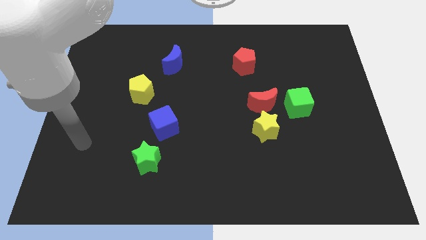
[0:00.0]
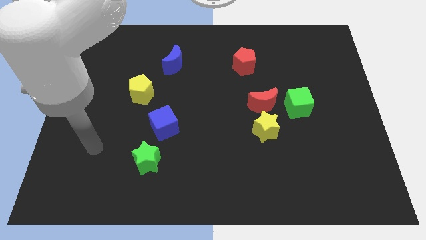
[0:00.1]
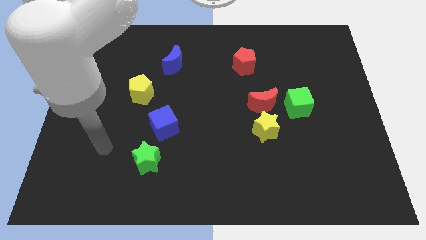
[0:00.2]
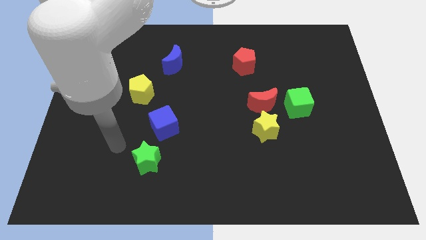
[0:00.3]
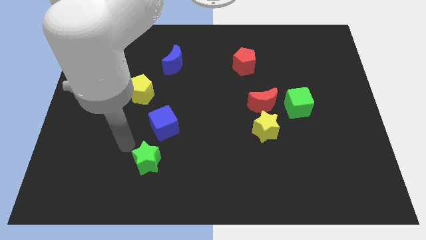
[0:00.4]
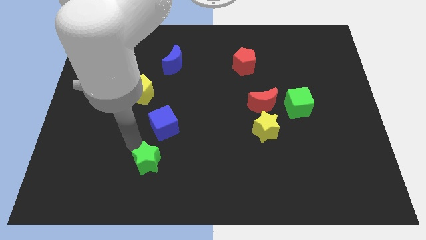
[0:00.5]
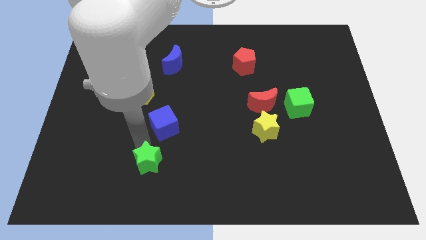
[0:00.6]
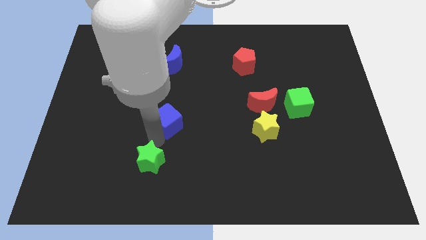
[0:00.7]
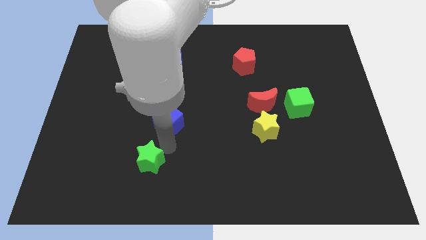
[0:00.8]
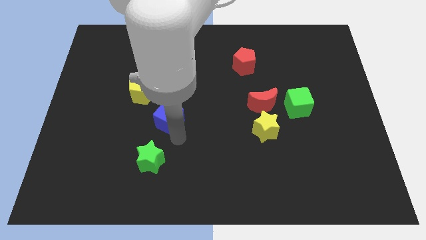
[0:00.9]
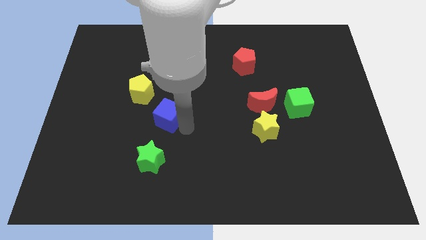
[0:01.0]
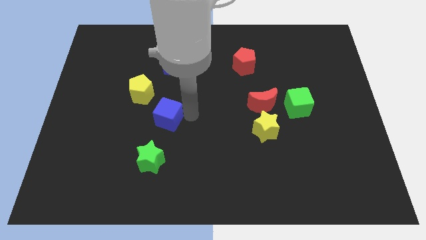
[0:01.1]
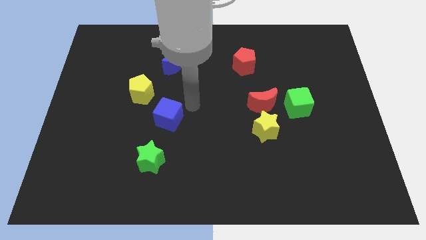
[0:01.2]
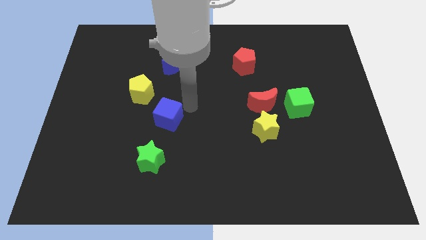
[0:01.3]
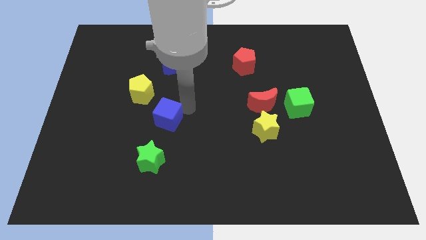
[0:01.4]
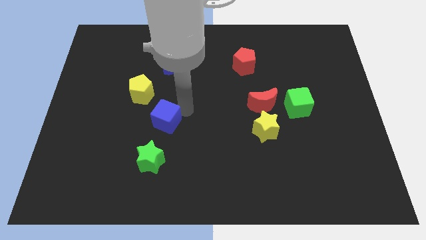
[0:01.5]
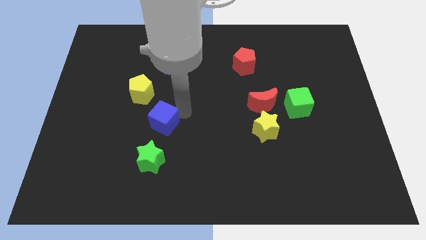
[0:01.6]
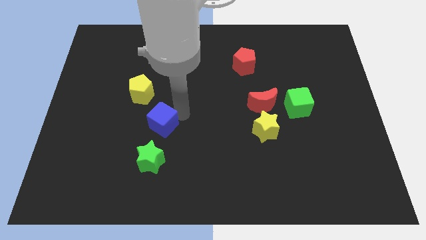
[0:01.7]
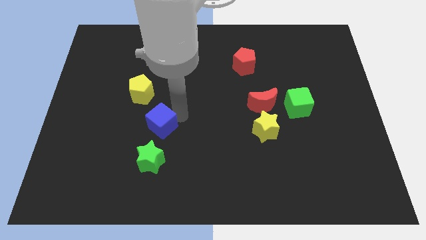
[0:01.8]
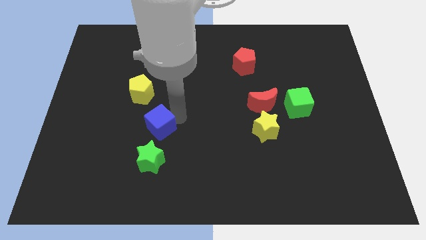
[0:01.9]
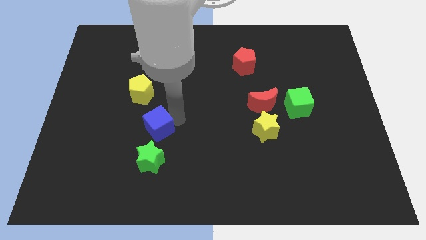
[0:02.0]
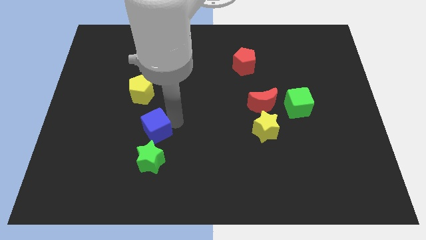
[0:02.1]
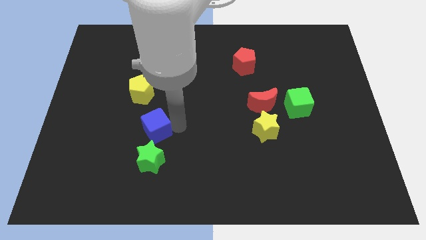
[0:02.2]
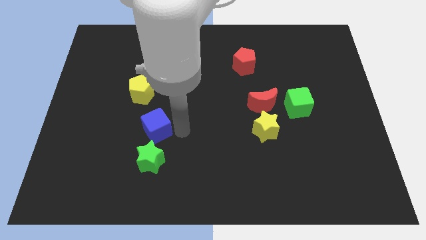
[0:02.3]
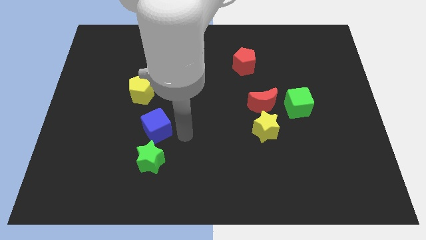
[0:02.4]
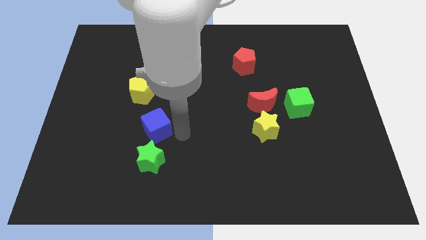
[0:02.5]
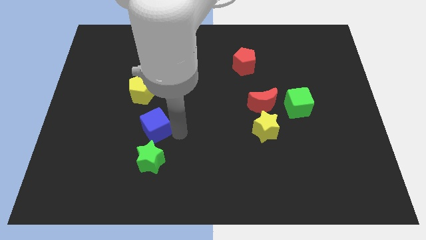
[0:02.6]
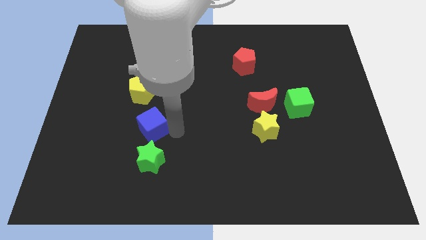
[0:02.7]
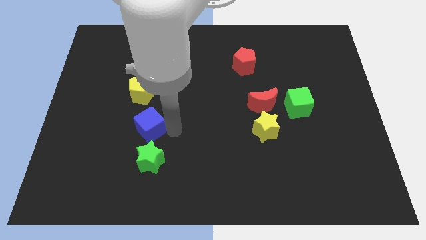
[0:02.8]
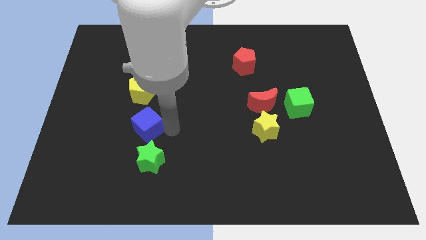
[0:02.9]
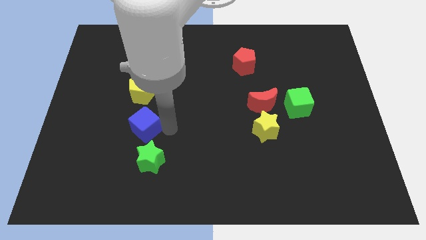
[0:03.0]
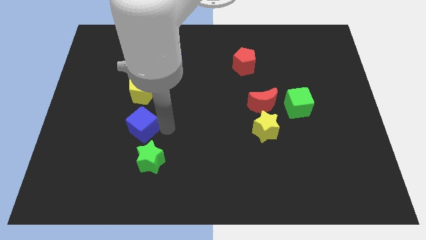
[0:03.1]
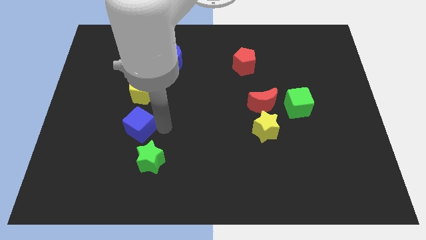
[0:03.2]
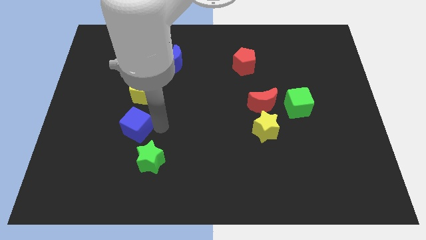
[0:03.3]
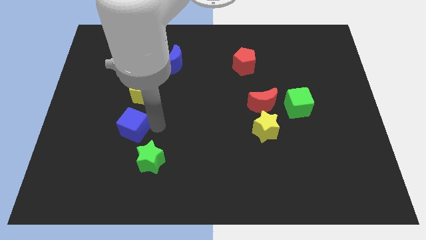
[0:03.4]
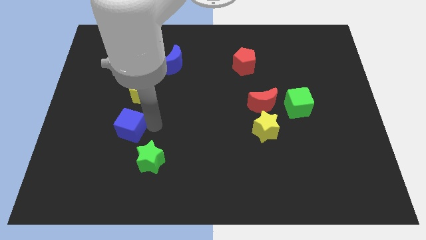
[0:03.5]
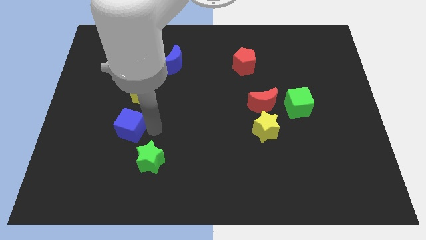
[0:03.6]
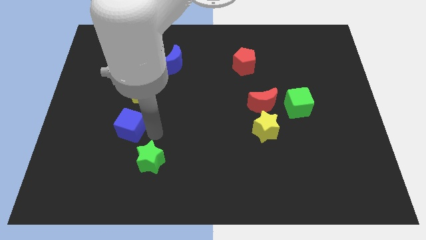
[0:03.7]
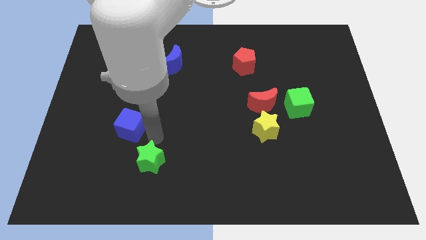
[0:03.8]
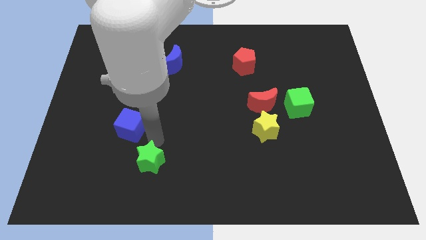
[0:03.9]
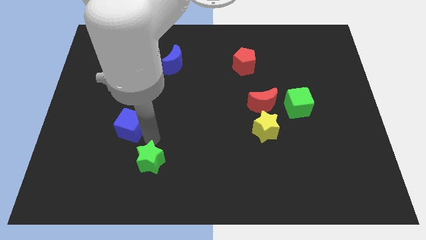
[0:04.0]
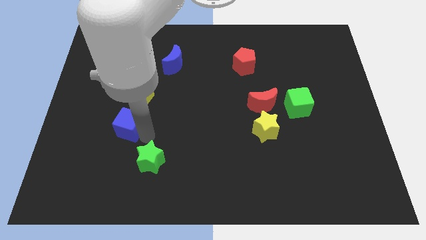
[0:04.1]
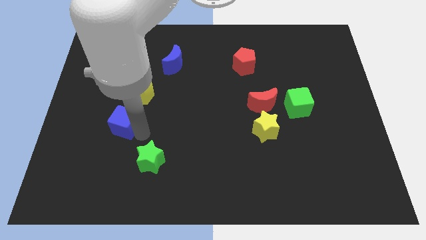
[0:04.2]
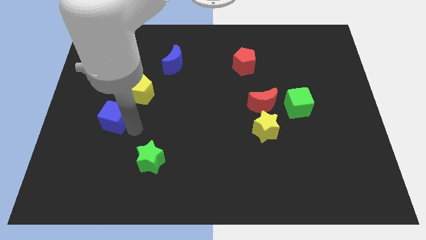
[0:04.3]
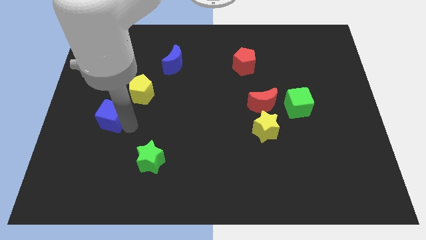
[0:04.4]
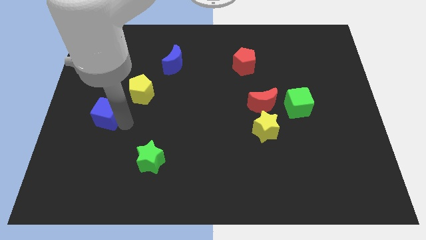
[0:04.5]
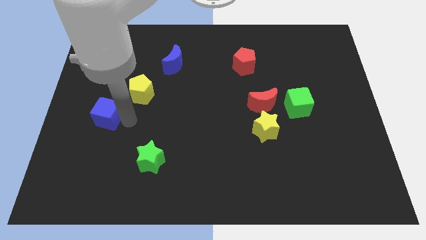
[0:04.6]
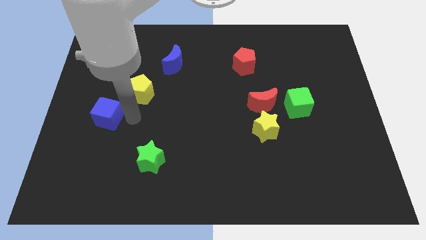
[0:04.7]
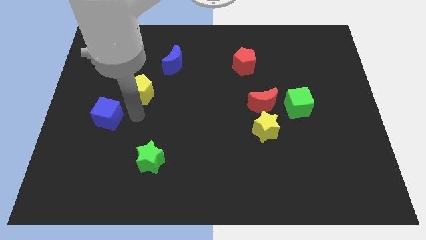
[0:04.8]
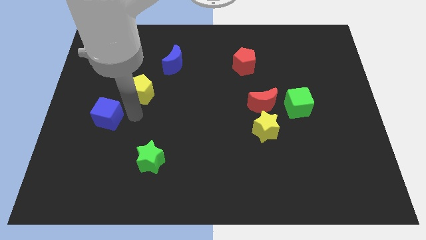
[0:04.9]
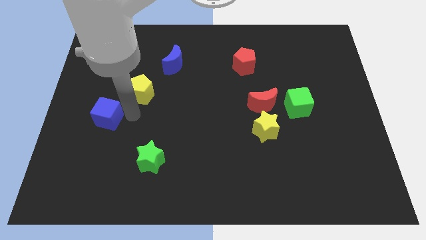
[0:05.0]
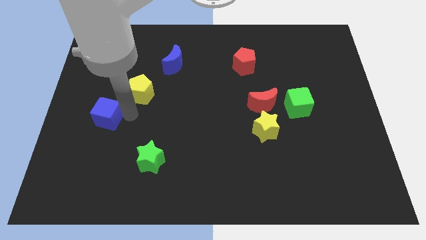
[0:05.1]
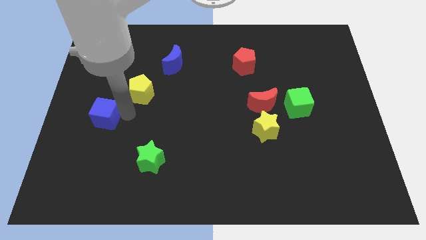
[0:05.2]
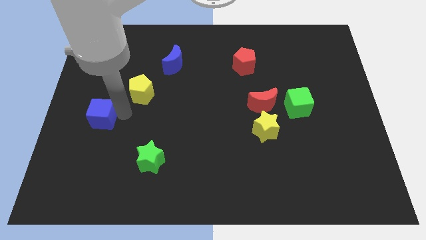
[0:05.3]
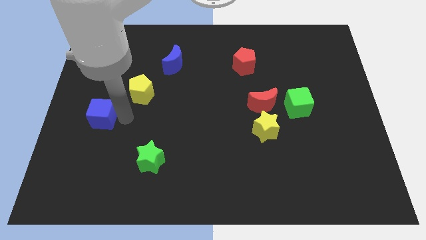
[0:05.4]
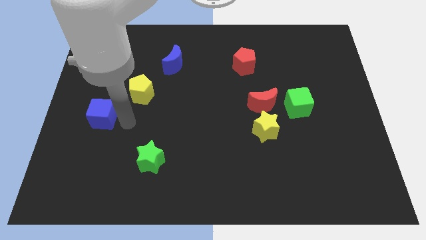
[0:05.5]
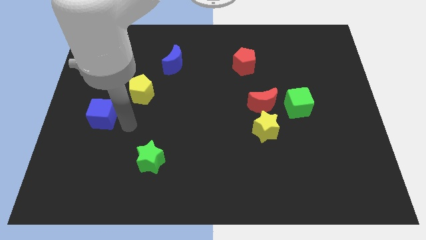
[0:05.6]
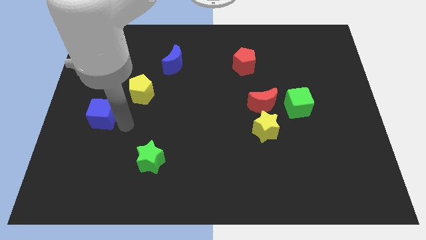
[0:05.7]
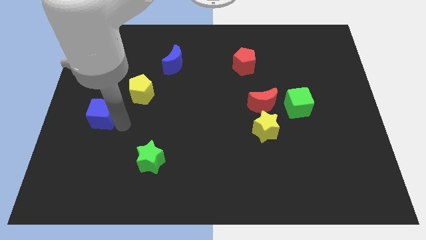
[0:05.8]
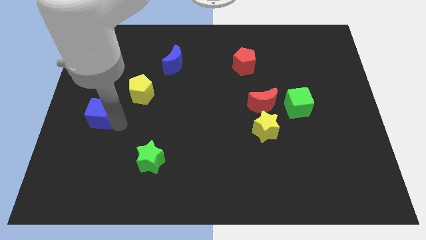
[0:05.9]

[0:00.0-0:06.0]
slide the blue cube to the left side

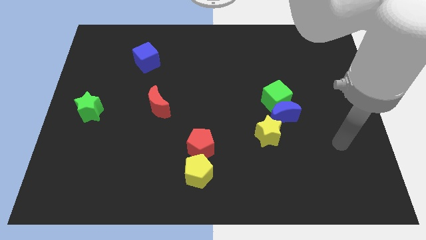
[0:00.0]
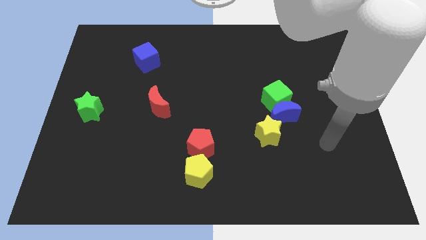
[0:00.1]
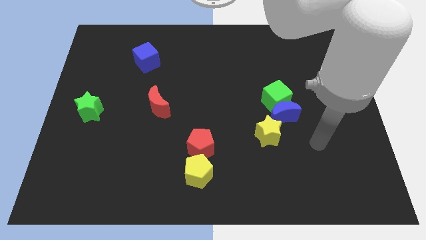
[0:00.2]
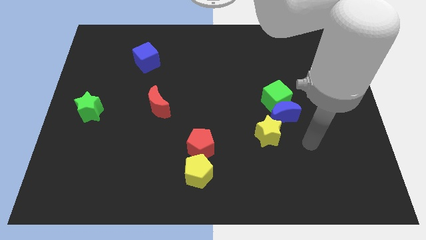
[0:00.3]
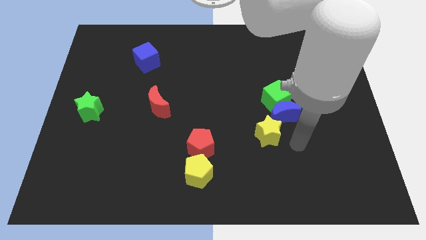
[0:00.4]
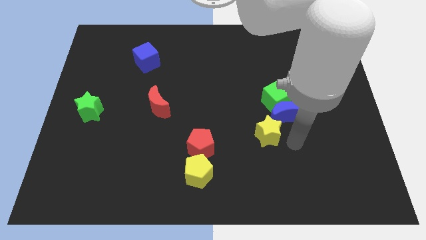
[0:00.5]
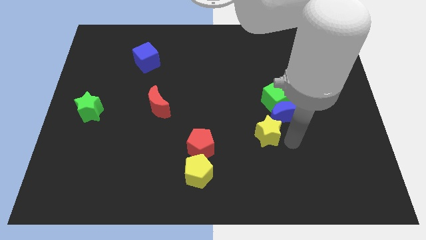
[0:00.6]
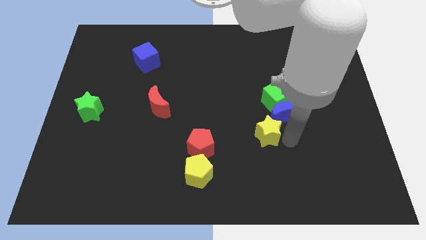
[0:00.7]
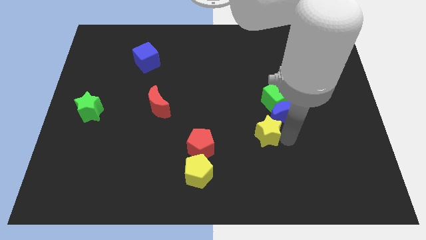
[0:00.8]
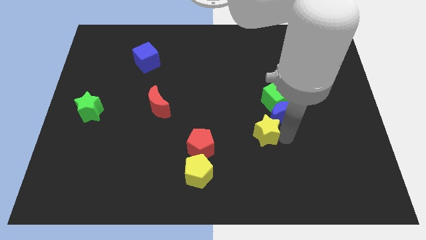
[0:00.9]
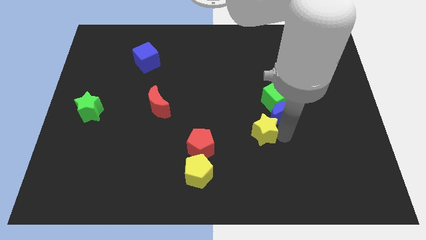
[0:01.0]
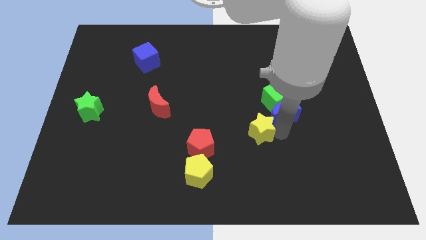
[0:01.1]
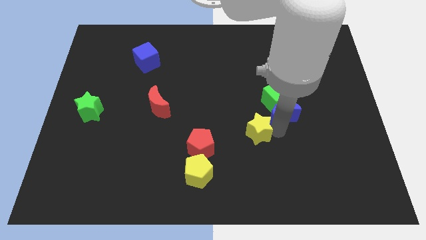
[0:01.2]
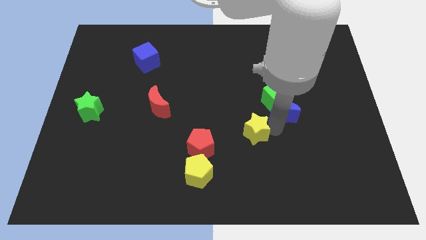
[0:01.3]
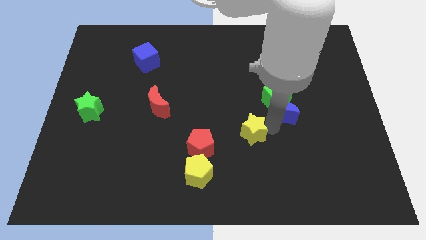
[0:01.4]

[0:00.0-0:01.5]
push the yellow star to the center of the board
